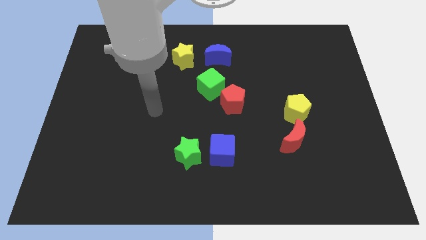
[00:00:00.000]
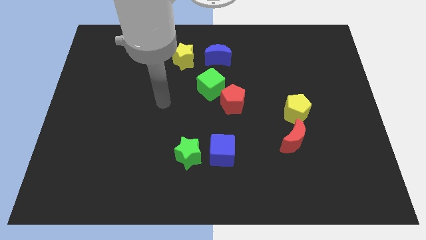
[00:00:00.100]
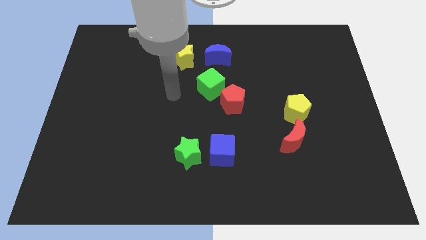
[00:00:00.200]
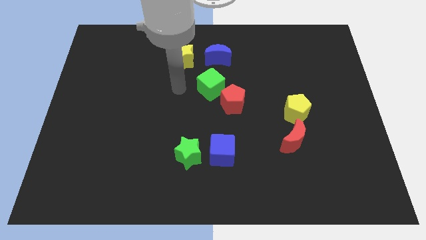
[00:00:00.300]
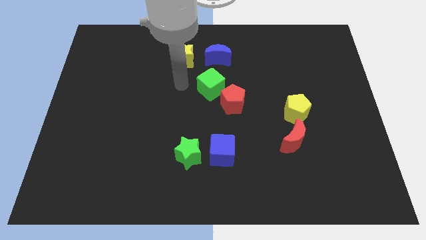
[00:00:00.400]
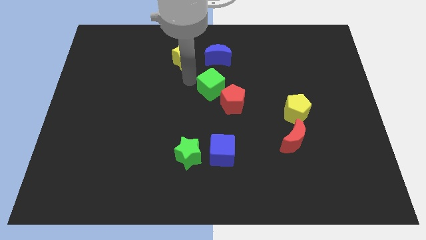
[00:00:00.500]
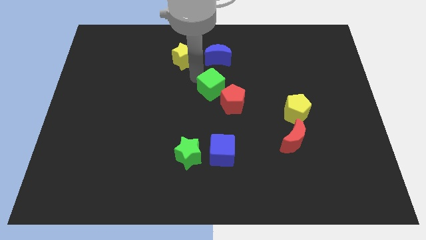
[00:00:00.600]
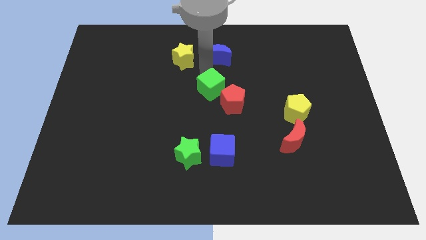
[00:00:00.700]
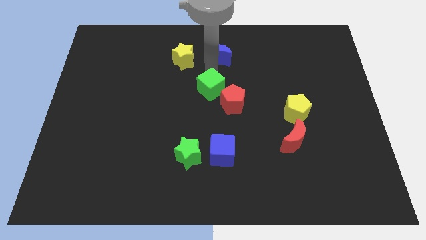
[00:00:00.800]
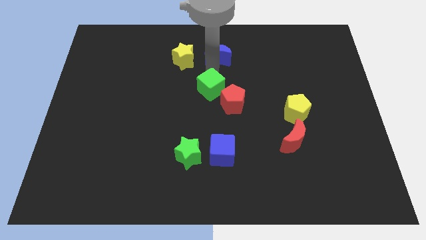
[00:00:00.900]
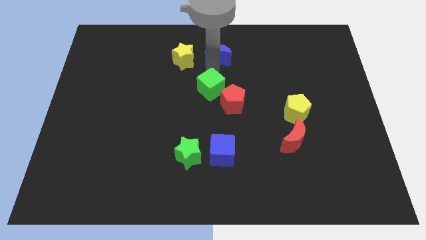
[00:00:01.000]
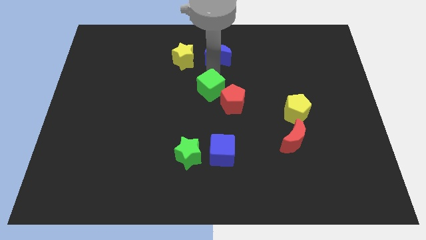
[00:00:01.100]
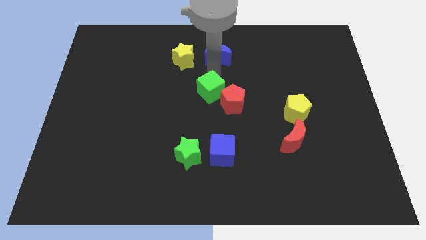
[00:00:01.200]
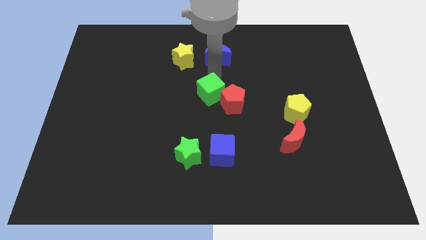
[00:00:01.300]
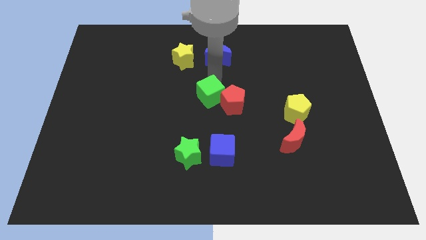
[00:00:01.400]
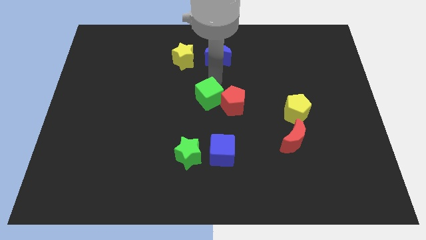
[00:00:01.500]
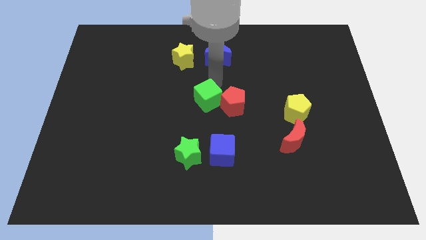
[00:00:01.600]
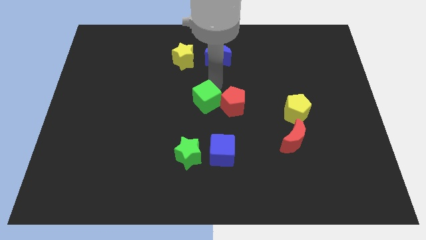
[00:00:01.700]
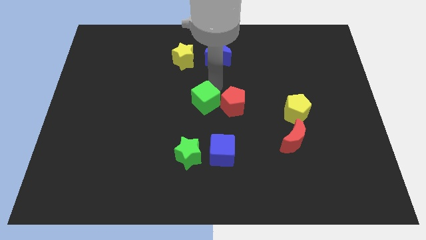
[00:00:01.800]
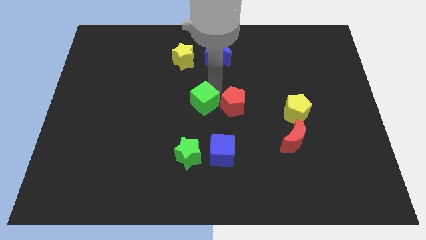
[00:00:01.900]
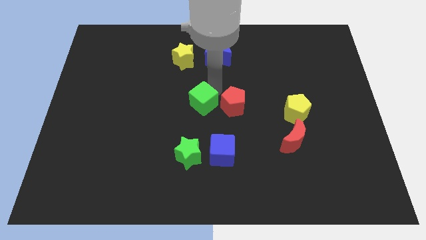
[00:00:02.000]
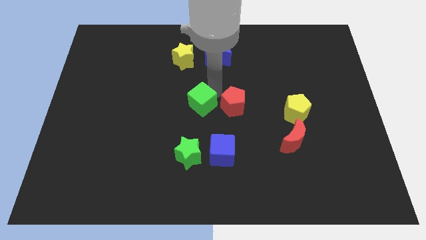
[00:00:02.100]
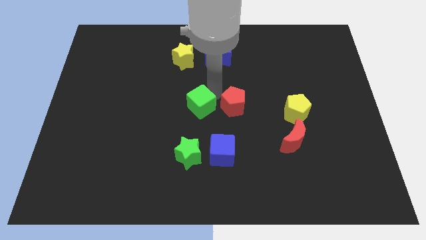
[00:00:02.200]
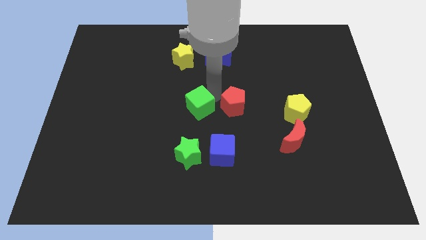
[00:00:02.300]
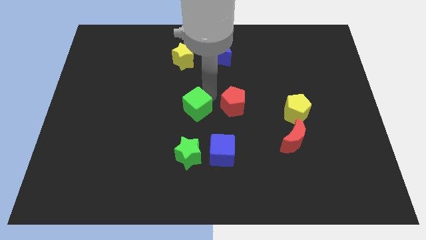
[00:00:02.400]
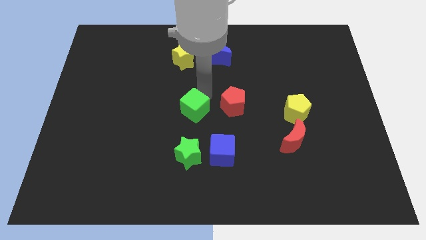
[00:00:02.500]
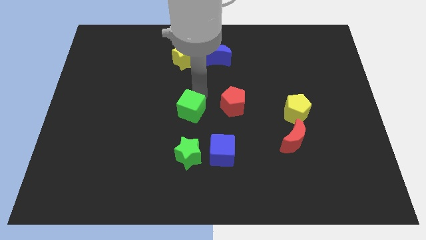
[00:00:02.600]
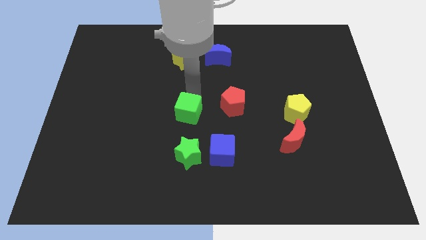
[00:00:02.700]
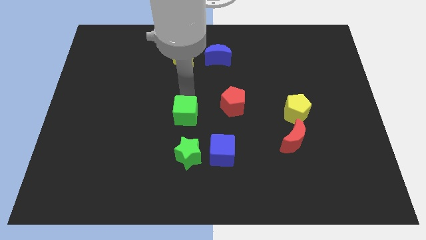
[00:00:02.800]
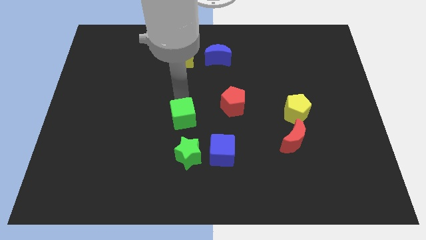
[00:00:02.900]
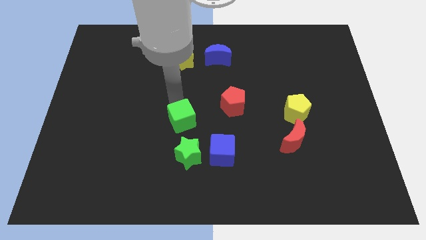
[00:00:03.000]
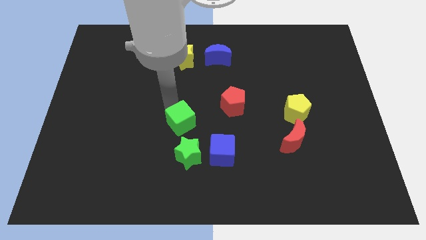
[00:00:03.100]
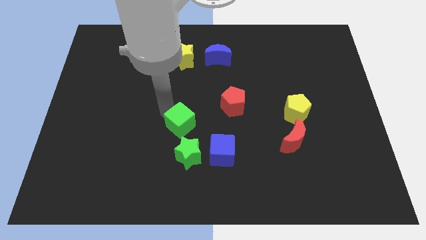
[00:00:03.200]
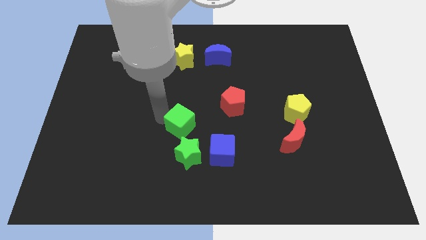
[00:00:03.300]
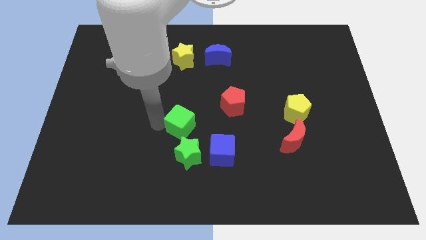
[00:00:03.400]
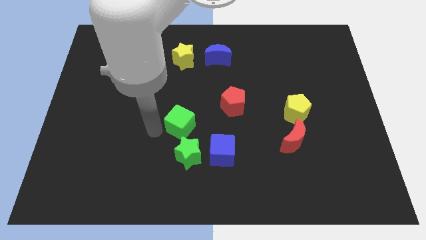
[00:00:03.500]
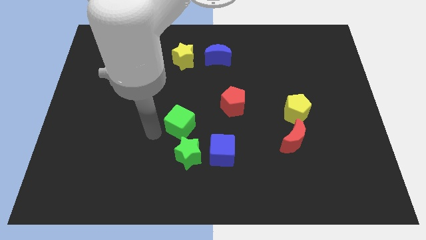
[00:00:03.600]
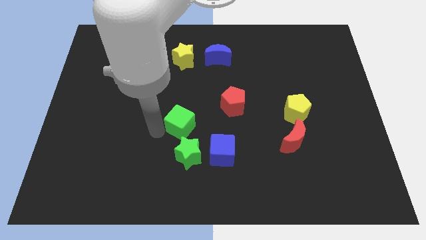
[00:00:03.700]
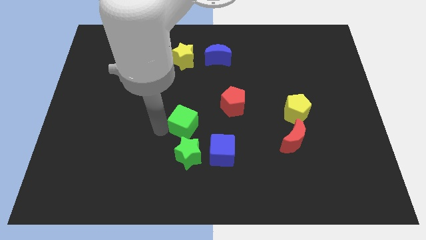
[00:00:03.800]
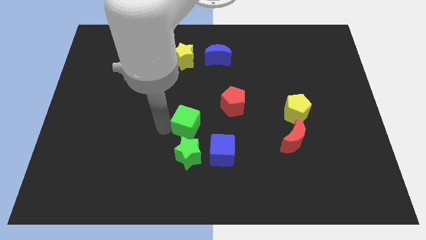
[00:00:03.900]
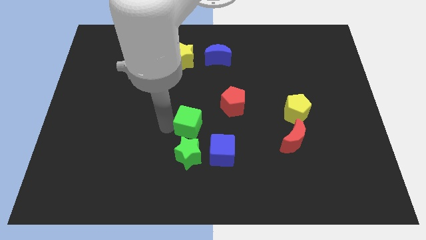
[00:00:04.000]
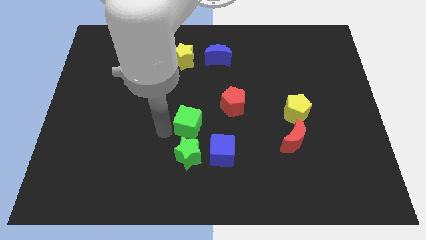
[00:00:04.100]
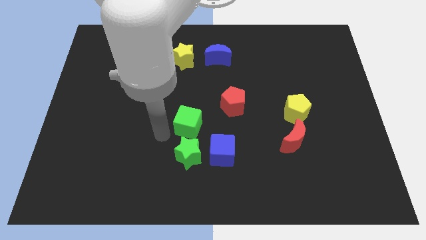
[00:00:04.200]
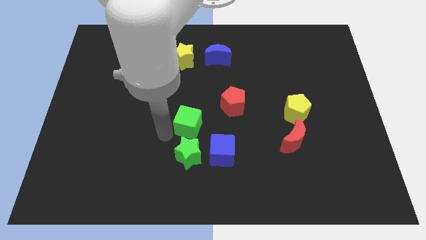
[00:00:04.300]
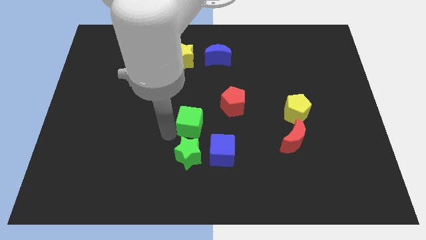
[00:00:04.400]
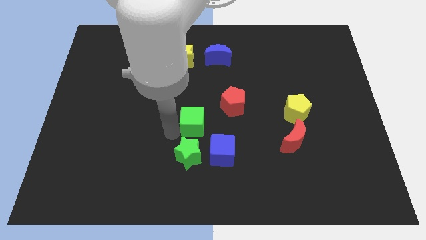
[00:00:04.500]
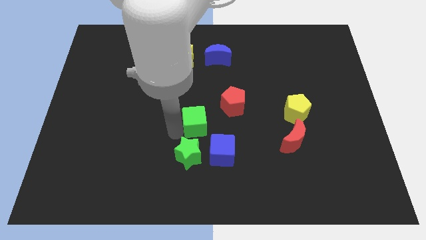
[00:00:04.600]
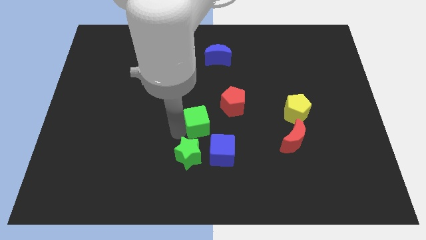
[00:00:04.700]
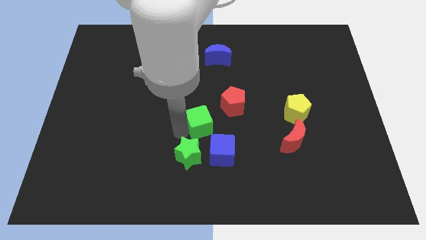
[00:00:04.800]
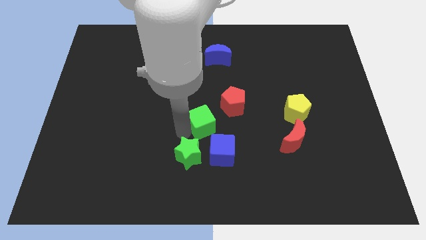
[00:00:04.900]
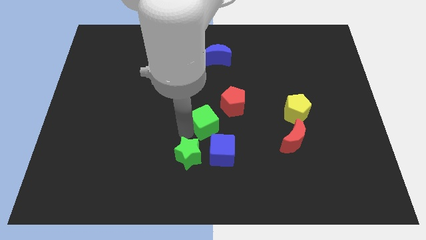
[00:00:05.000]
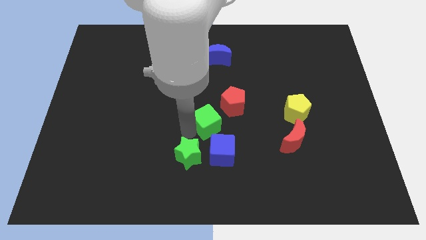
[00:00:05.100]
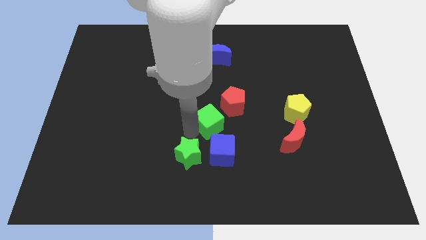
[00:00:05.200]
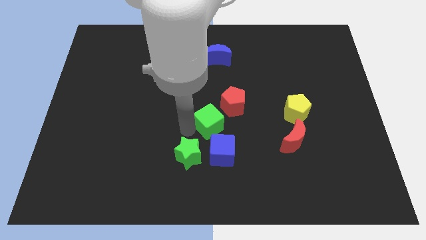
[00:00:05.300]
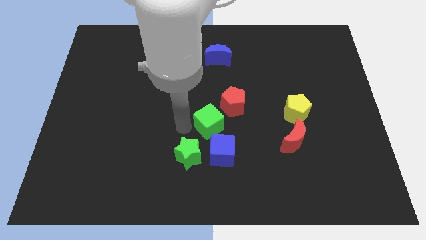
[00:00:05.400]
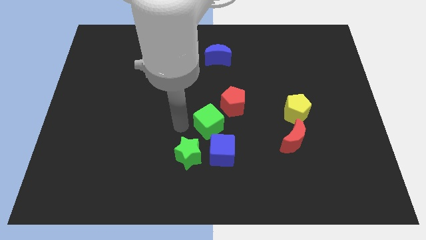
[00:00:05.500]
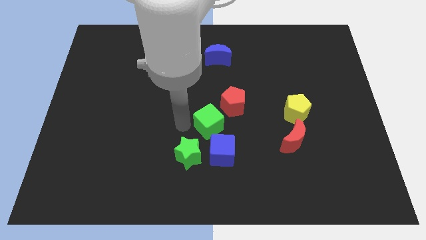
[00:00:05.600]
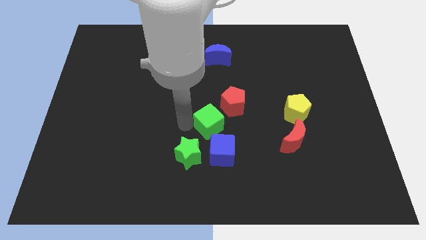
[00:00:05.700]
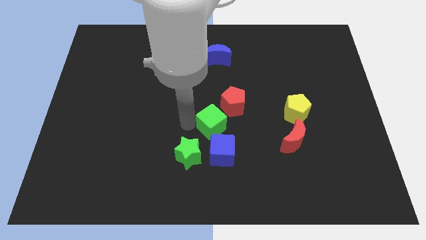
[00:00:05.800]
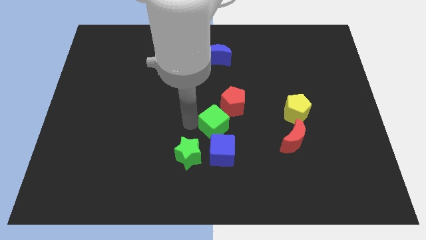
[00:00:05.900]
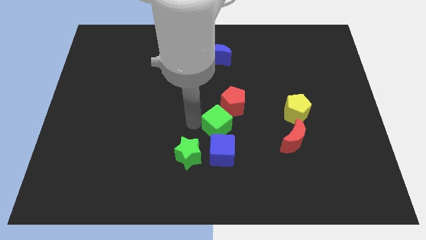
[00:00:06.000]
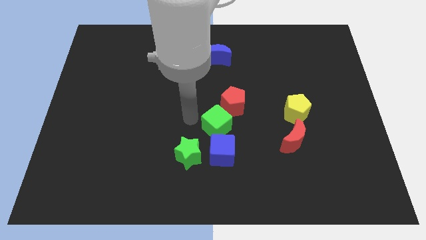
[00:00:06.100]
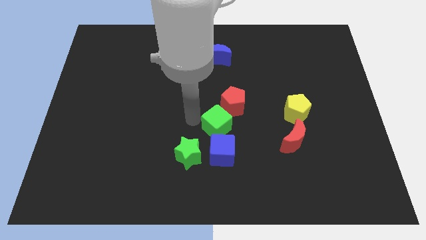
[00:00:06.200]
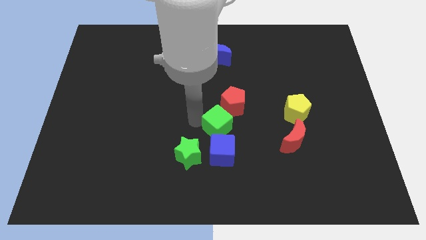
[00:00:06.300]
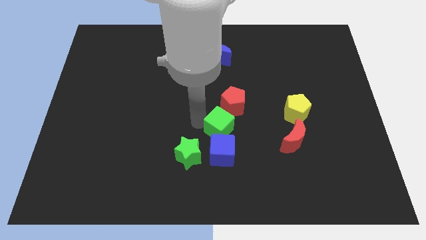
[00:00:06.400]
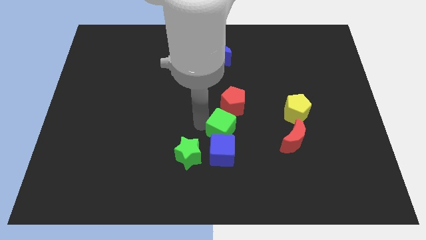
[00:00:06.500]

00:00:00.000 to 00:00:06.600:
move the green cube to the top right of the blue cube

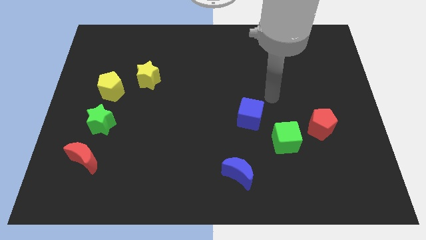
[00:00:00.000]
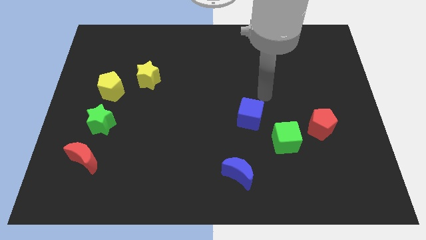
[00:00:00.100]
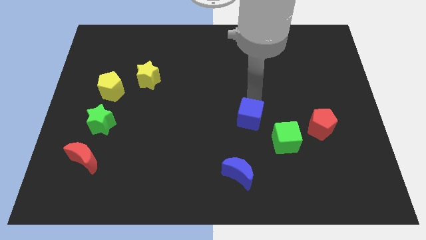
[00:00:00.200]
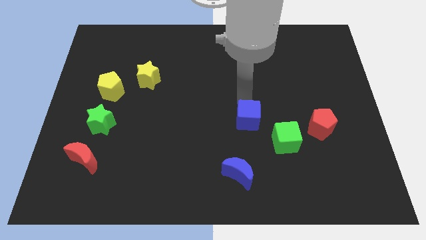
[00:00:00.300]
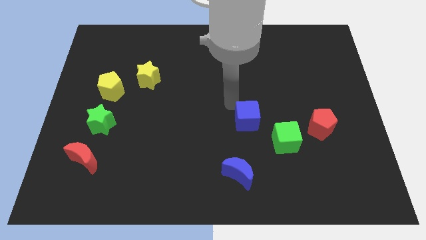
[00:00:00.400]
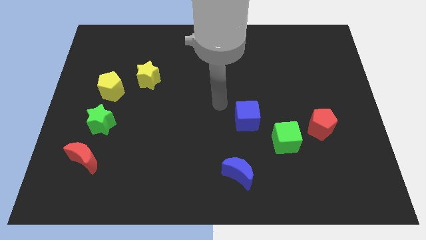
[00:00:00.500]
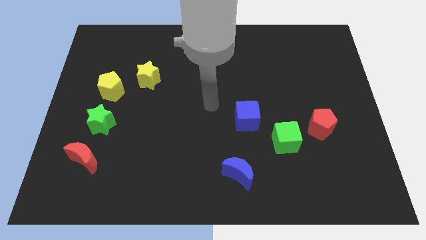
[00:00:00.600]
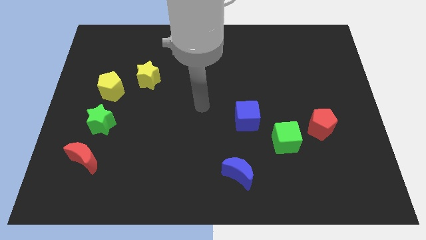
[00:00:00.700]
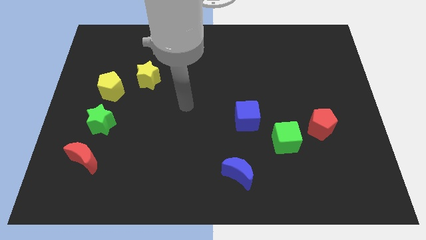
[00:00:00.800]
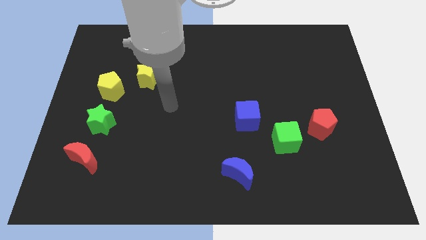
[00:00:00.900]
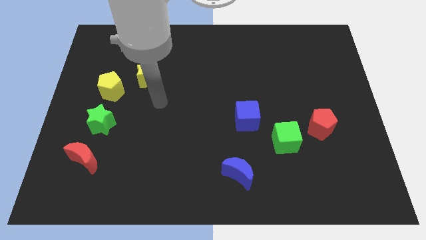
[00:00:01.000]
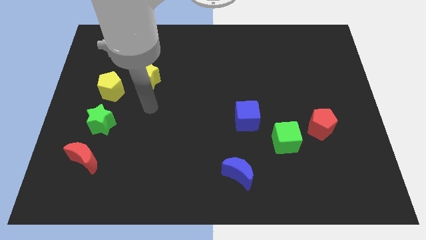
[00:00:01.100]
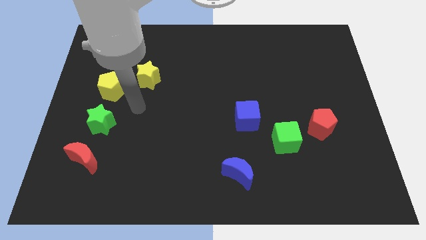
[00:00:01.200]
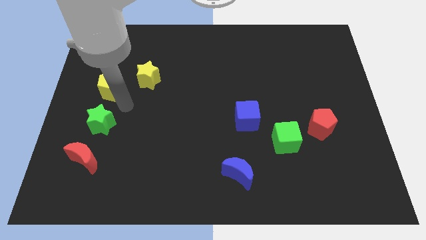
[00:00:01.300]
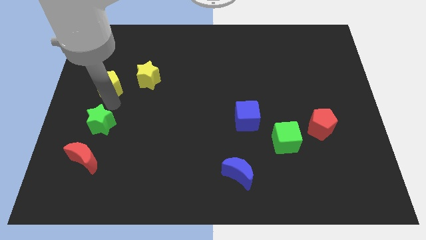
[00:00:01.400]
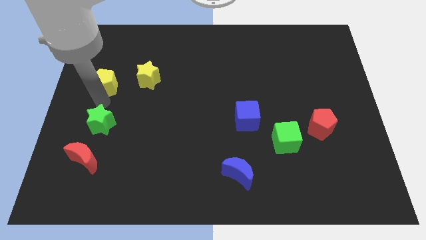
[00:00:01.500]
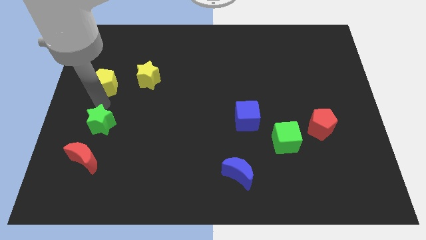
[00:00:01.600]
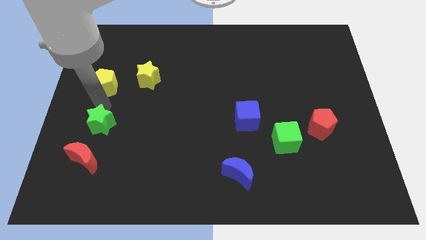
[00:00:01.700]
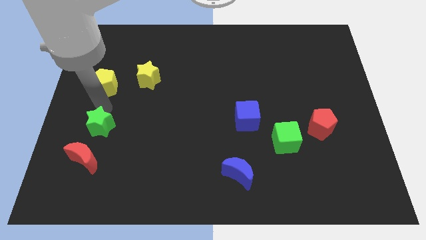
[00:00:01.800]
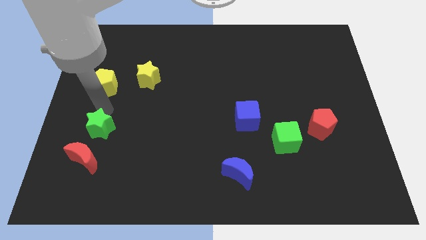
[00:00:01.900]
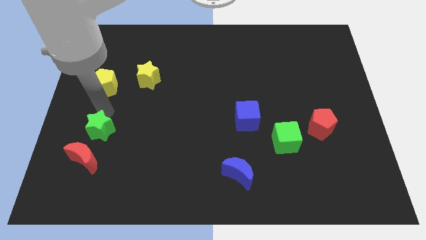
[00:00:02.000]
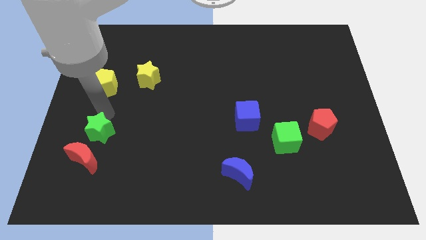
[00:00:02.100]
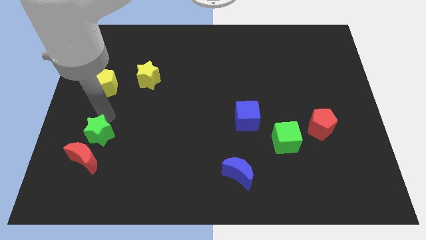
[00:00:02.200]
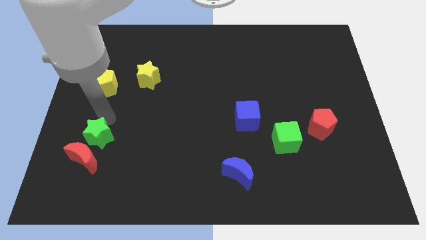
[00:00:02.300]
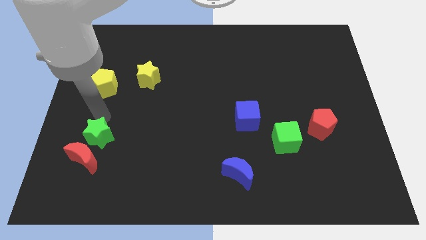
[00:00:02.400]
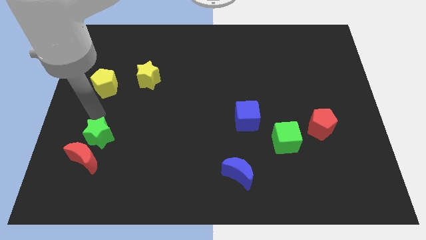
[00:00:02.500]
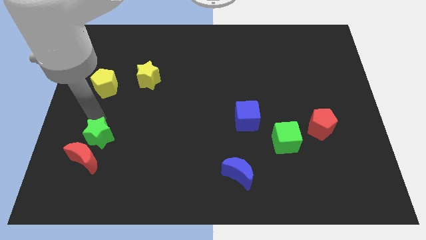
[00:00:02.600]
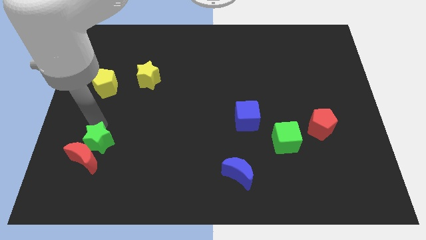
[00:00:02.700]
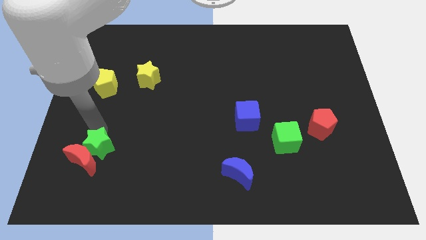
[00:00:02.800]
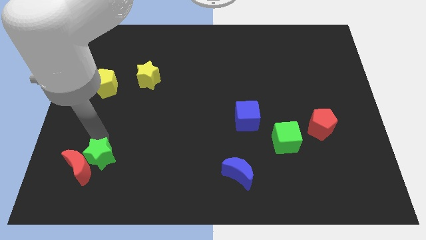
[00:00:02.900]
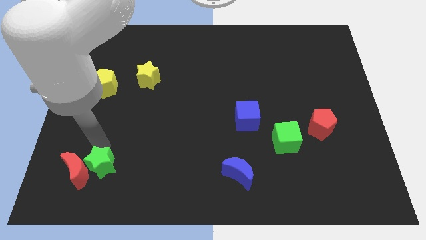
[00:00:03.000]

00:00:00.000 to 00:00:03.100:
slide the green star to the bottom right side of the red moon
